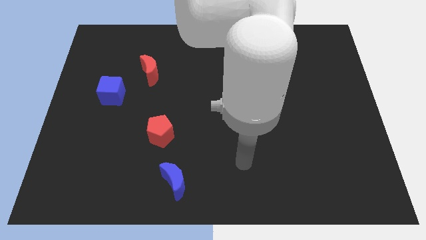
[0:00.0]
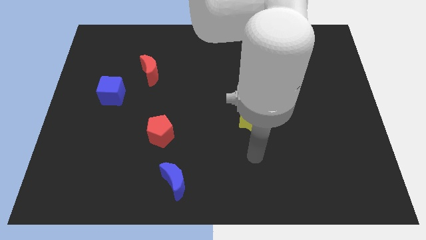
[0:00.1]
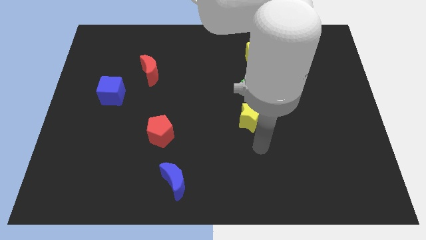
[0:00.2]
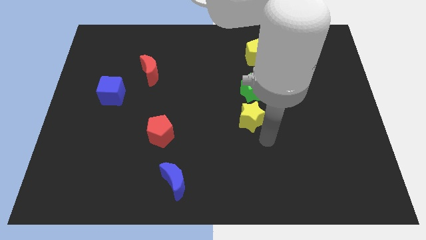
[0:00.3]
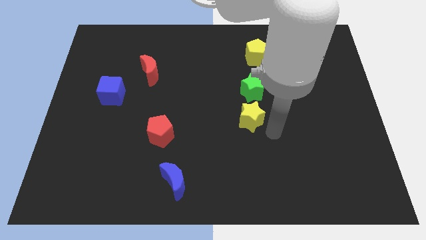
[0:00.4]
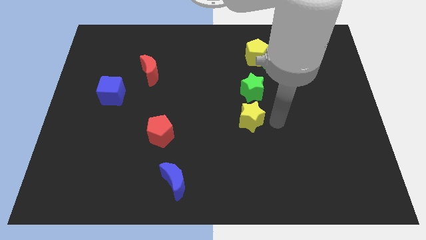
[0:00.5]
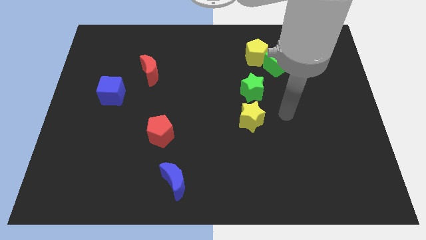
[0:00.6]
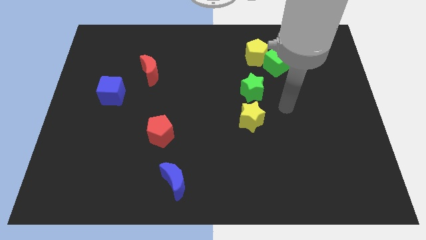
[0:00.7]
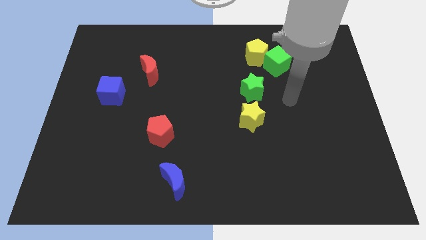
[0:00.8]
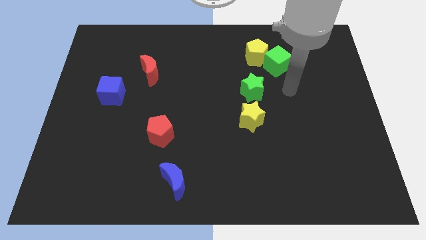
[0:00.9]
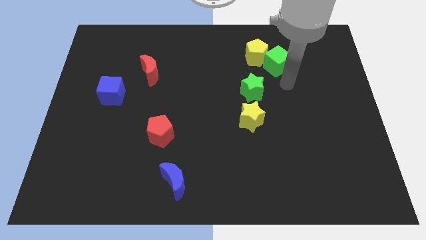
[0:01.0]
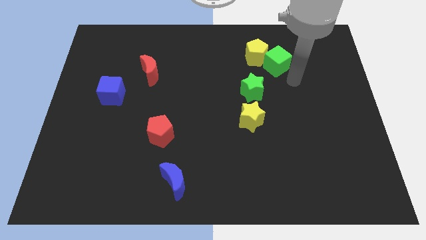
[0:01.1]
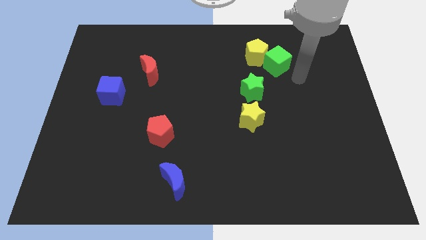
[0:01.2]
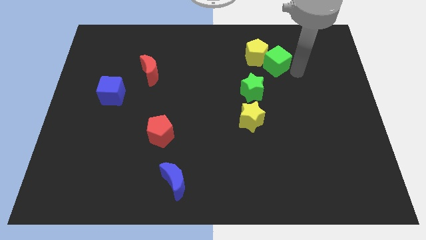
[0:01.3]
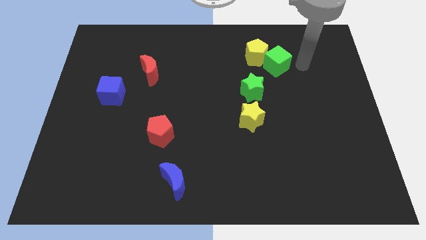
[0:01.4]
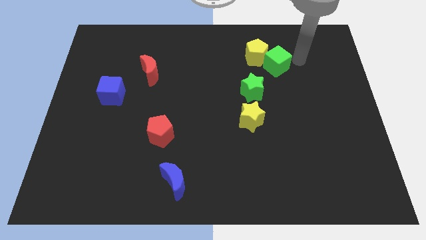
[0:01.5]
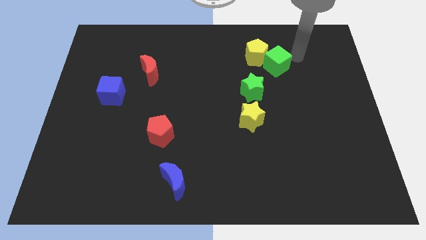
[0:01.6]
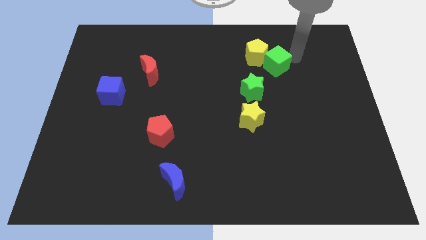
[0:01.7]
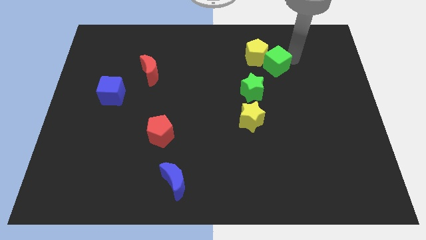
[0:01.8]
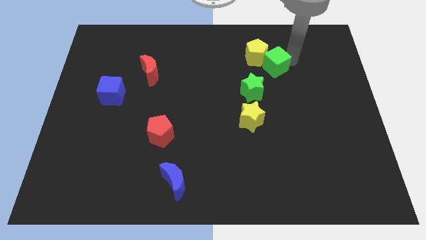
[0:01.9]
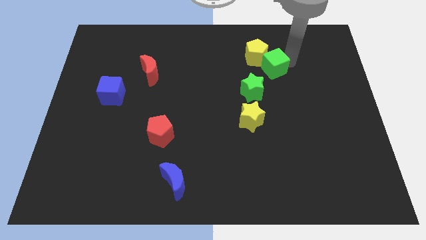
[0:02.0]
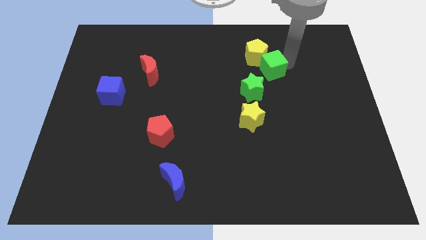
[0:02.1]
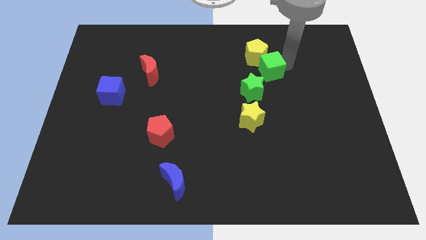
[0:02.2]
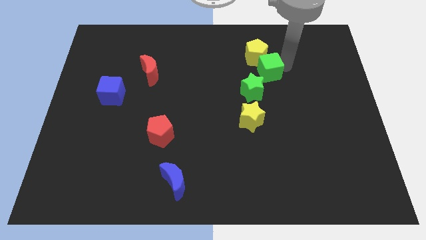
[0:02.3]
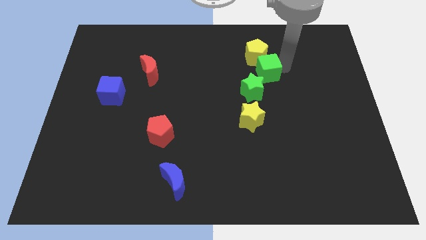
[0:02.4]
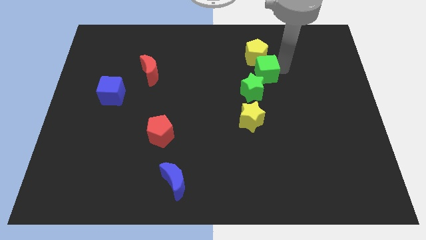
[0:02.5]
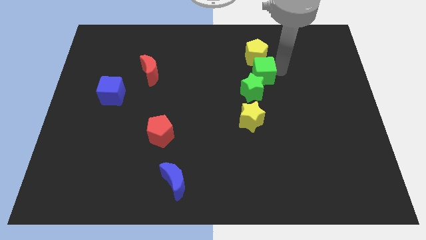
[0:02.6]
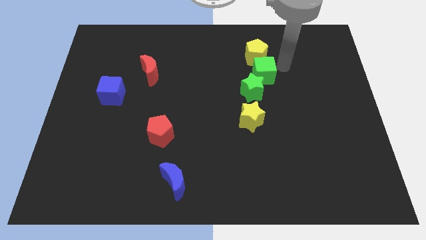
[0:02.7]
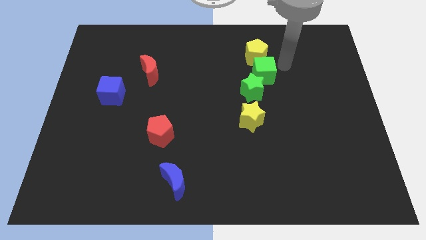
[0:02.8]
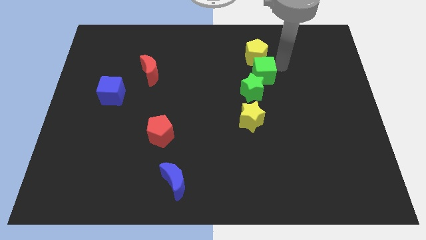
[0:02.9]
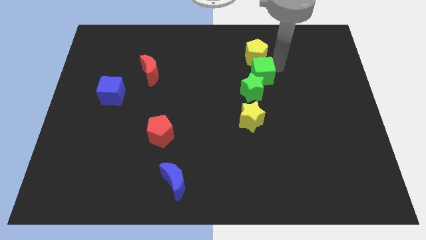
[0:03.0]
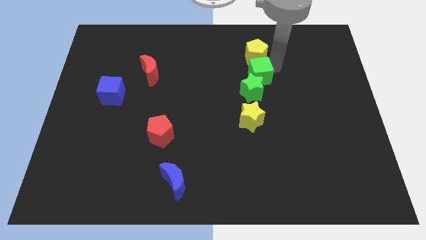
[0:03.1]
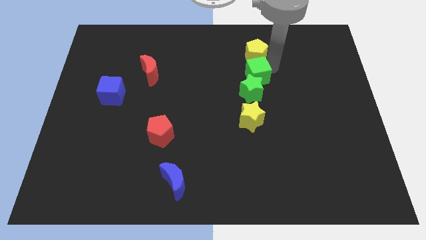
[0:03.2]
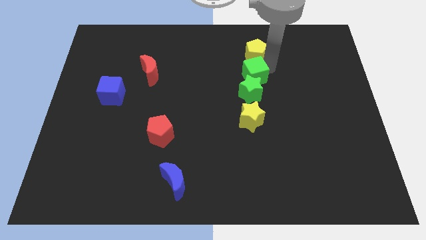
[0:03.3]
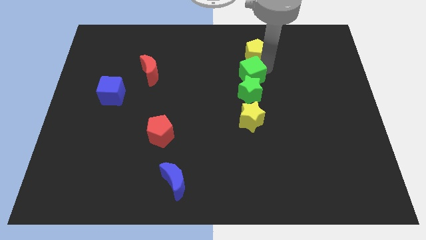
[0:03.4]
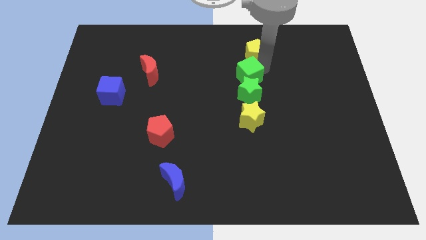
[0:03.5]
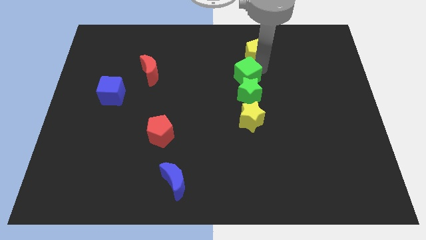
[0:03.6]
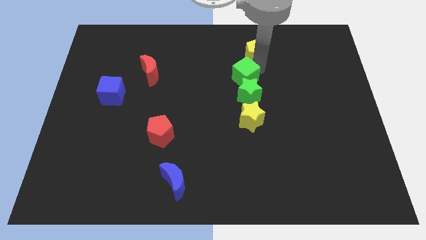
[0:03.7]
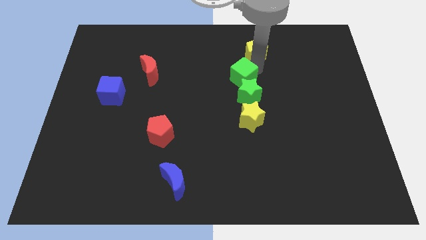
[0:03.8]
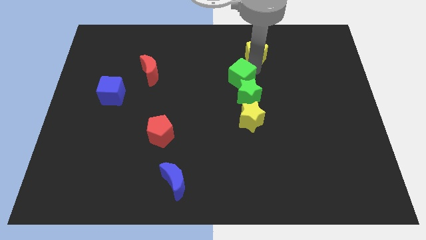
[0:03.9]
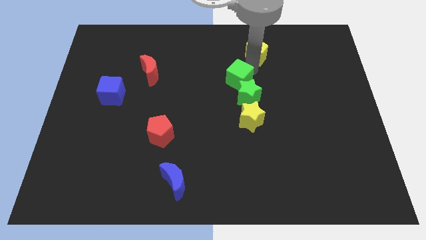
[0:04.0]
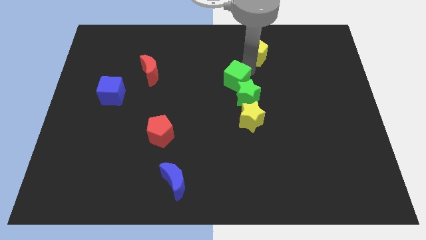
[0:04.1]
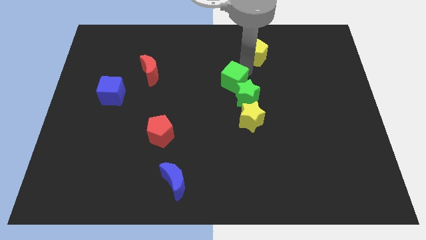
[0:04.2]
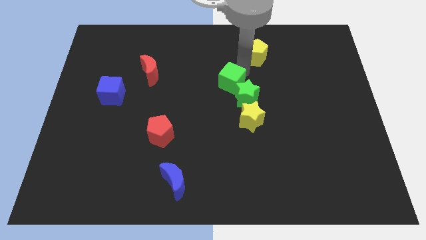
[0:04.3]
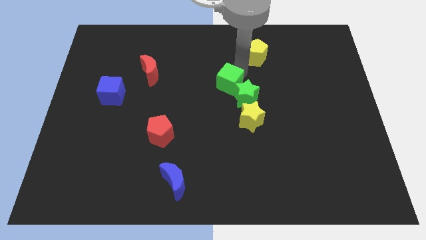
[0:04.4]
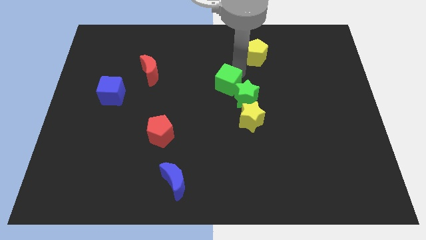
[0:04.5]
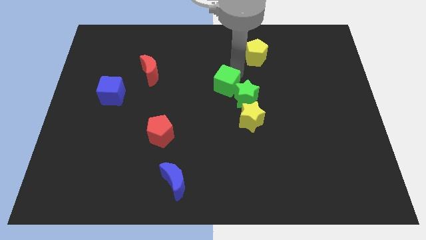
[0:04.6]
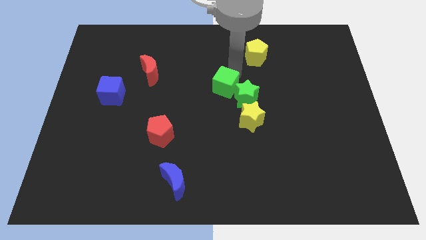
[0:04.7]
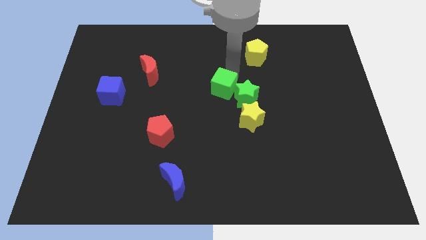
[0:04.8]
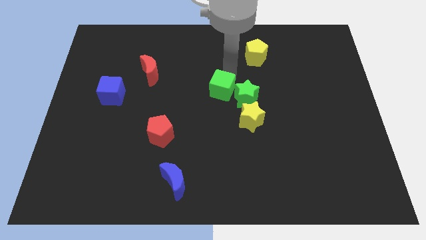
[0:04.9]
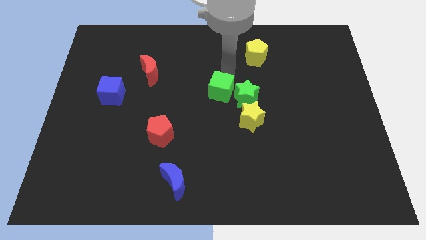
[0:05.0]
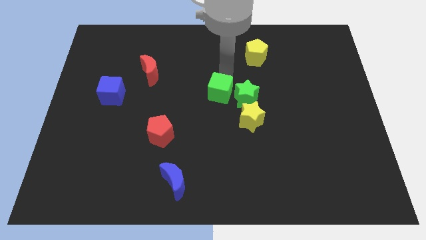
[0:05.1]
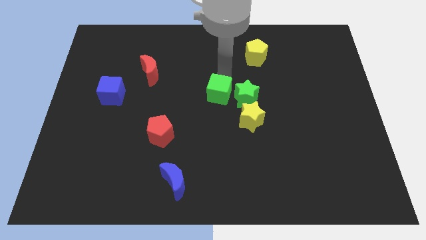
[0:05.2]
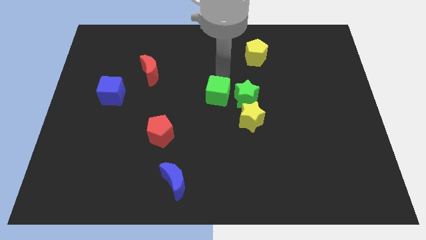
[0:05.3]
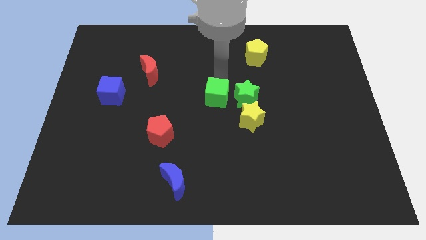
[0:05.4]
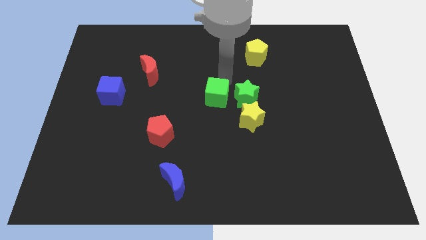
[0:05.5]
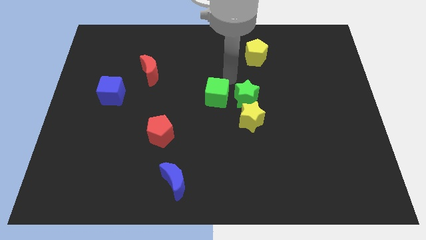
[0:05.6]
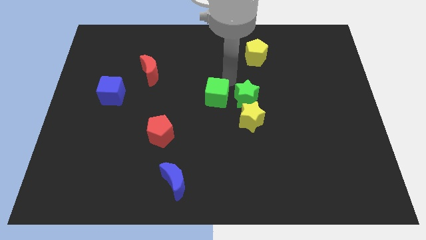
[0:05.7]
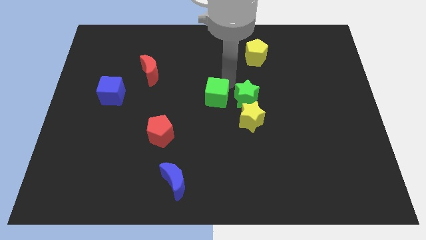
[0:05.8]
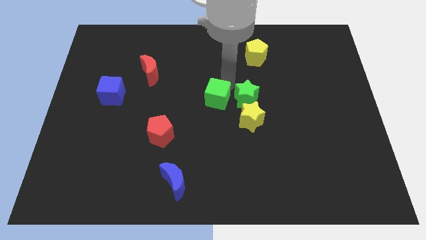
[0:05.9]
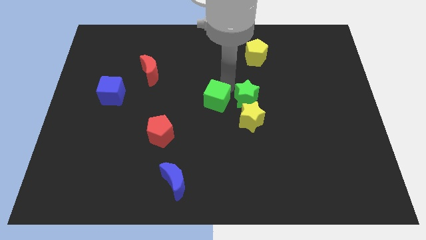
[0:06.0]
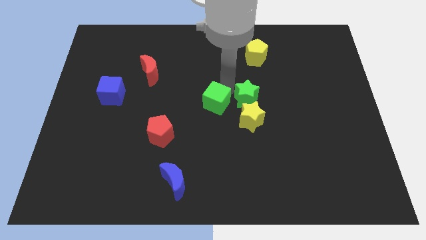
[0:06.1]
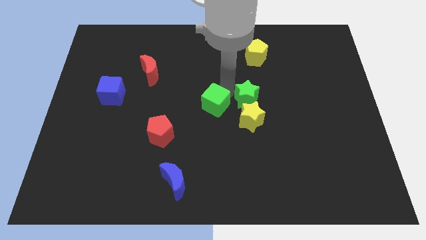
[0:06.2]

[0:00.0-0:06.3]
move the green cube downwards and left

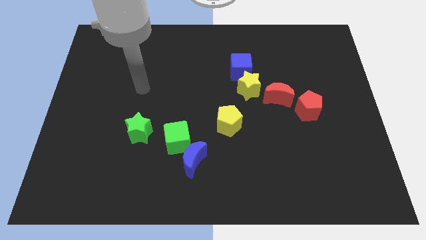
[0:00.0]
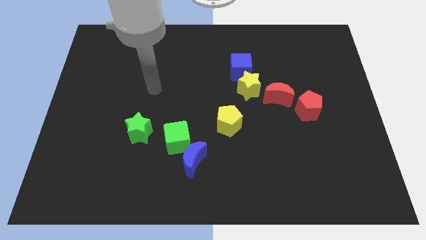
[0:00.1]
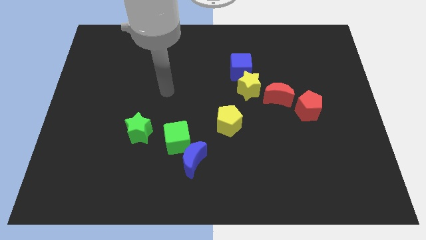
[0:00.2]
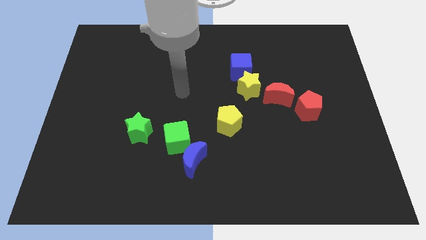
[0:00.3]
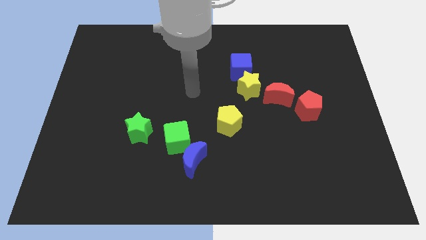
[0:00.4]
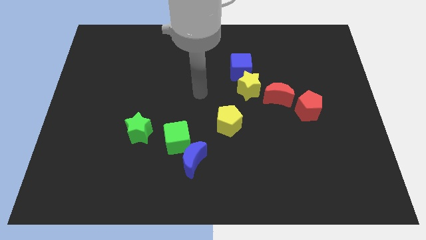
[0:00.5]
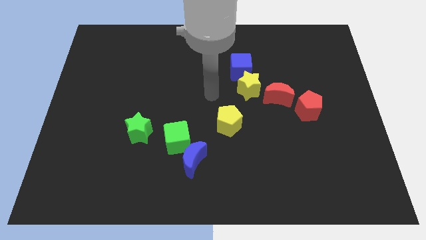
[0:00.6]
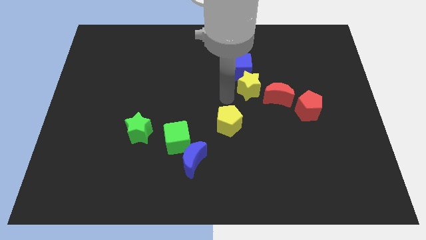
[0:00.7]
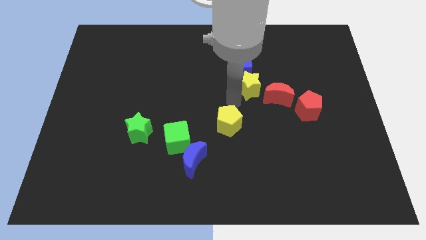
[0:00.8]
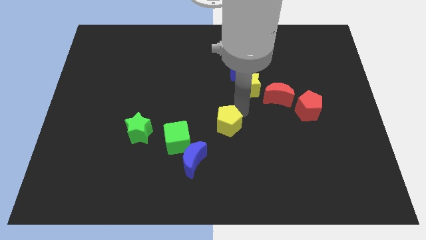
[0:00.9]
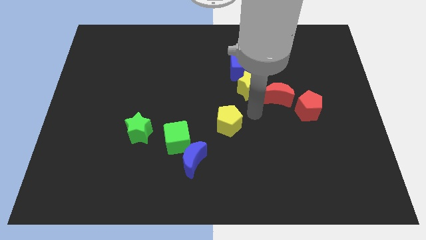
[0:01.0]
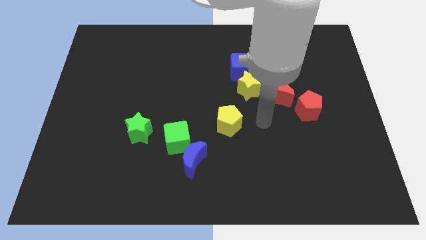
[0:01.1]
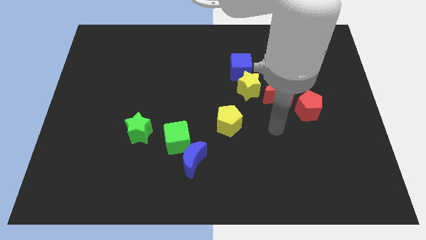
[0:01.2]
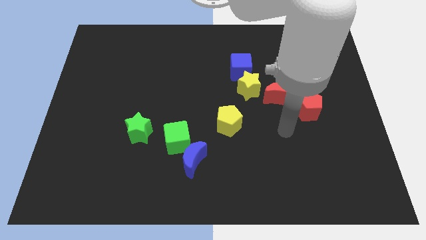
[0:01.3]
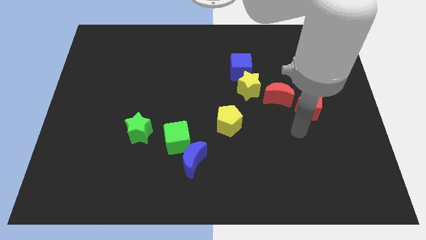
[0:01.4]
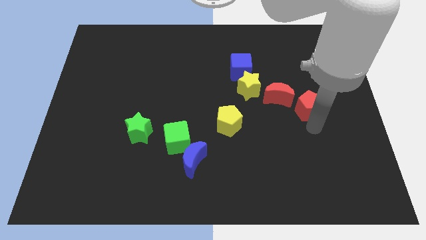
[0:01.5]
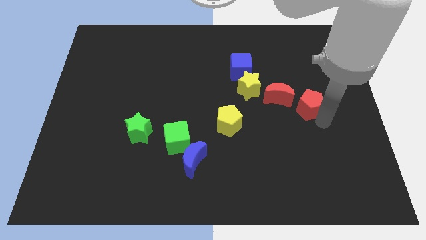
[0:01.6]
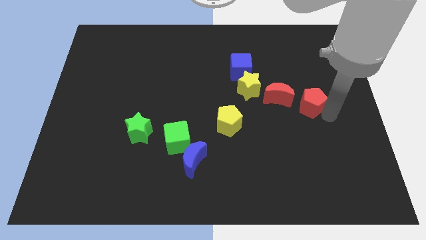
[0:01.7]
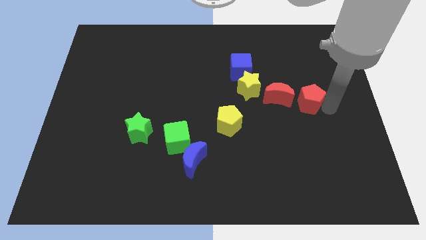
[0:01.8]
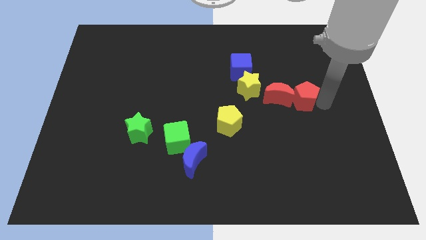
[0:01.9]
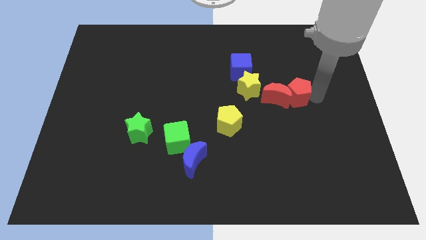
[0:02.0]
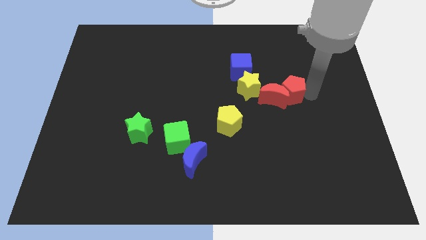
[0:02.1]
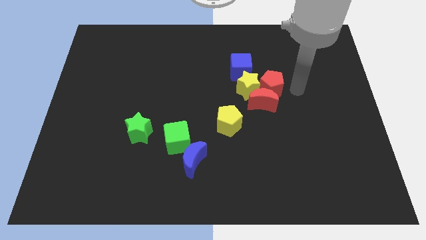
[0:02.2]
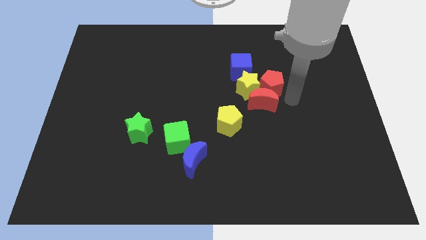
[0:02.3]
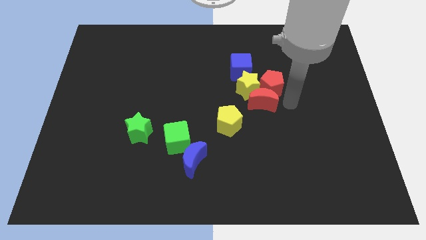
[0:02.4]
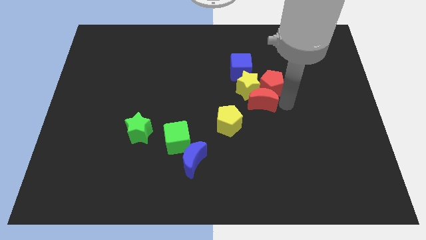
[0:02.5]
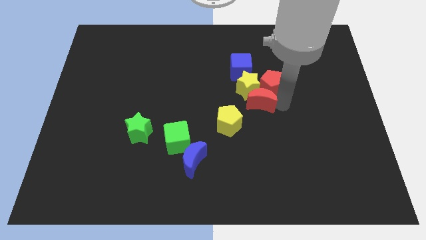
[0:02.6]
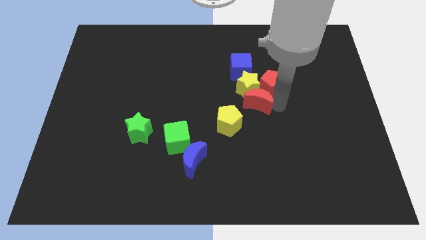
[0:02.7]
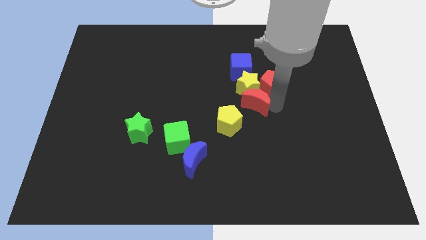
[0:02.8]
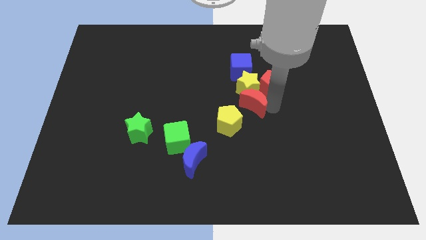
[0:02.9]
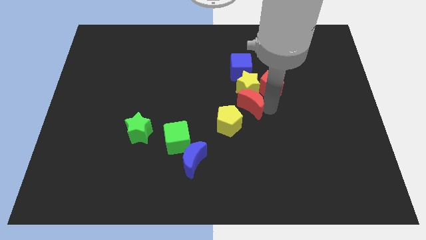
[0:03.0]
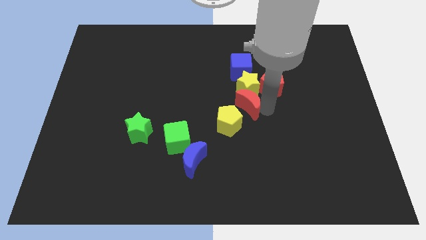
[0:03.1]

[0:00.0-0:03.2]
slide the red moon a little bit to the left
